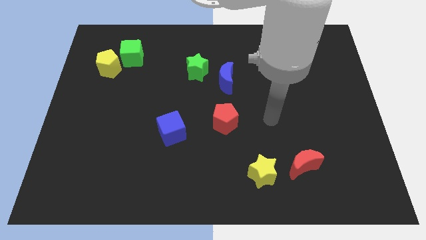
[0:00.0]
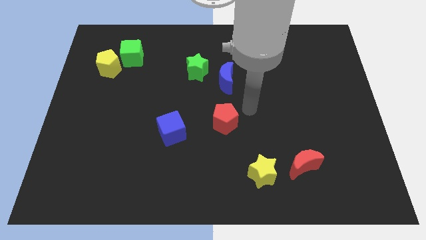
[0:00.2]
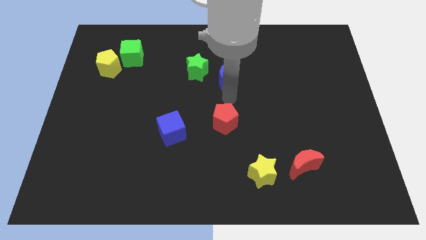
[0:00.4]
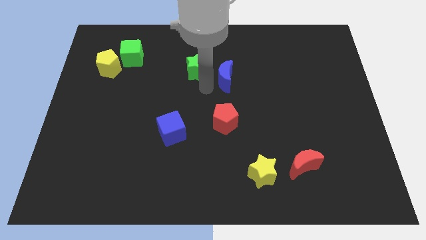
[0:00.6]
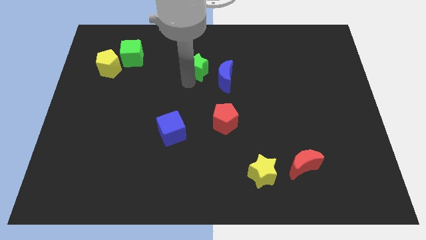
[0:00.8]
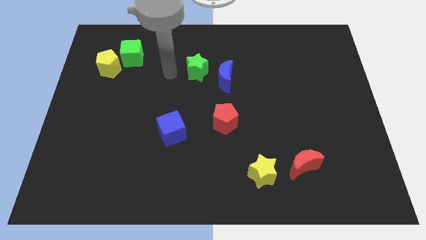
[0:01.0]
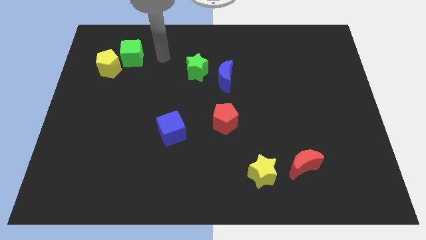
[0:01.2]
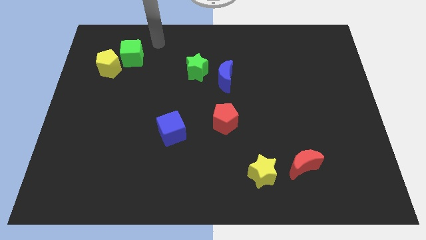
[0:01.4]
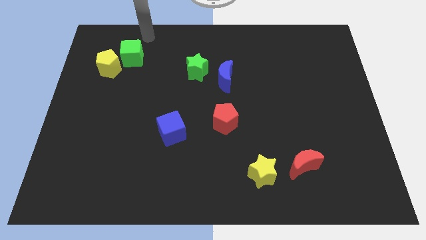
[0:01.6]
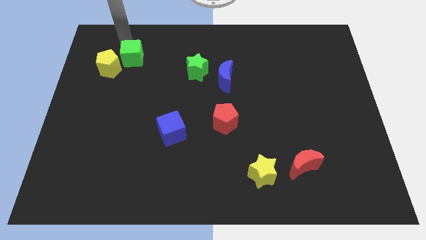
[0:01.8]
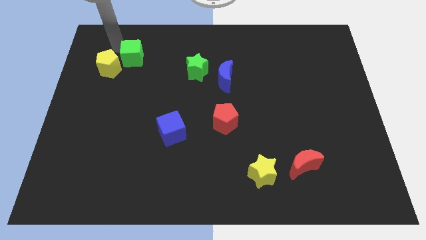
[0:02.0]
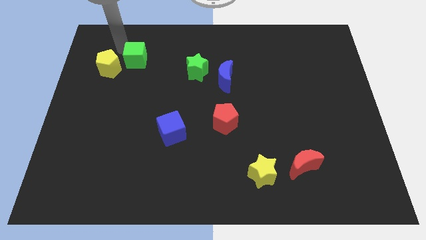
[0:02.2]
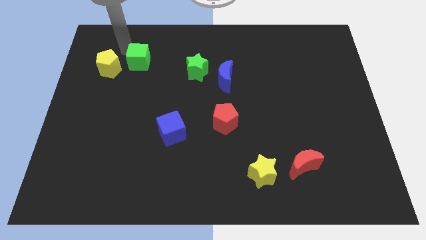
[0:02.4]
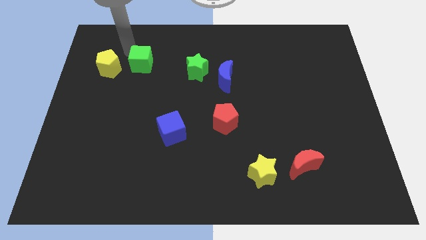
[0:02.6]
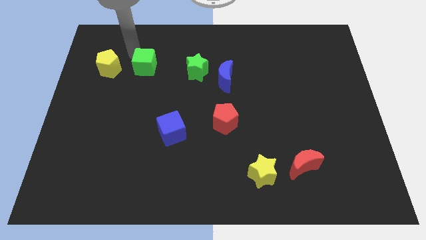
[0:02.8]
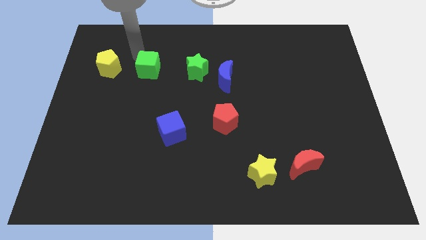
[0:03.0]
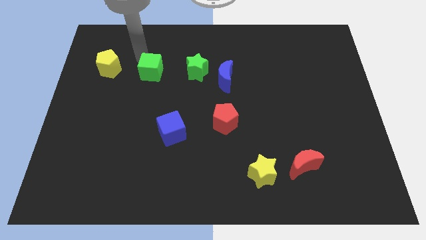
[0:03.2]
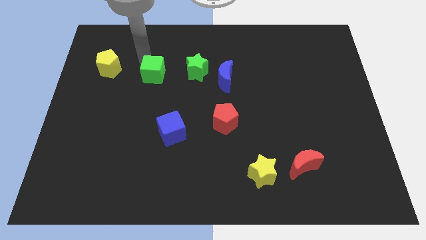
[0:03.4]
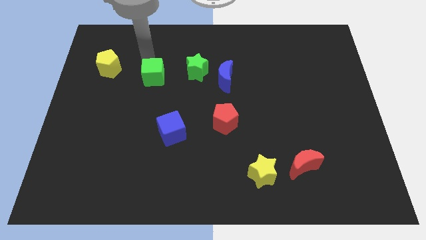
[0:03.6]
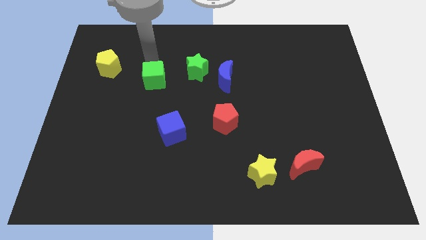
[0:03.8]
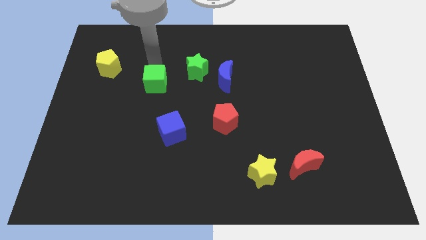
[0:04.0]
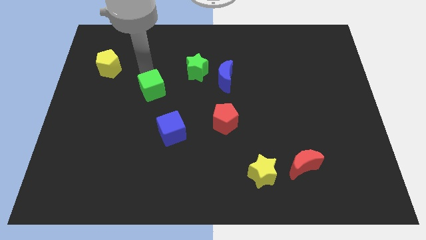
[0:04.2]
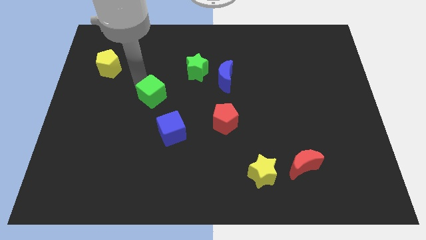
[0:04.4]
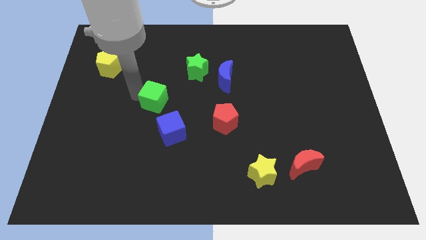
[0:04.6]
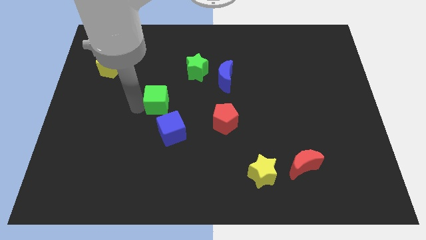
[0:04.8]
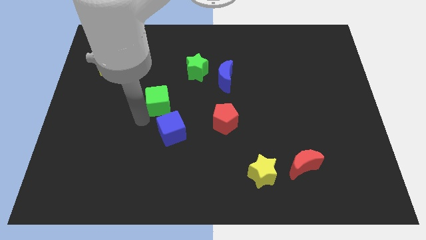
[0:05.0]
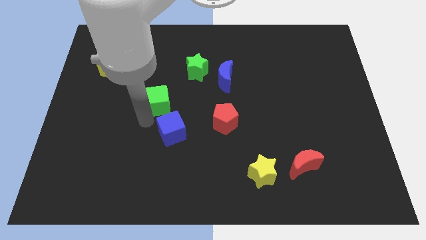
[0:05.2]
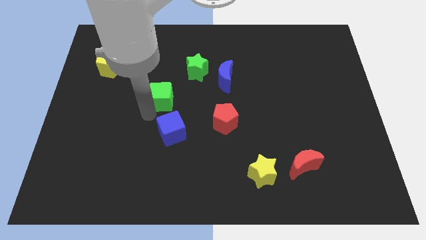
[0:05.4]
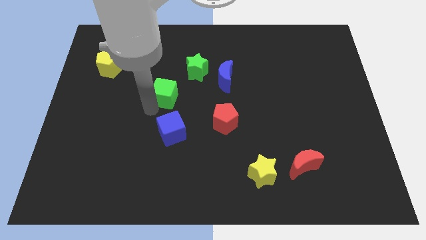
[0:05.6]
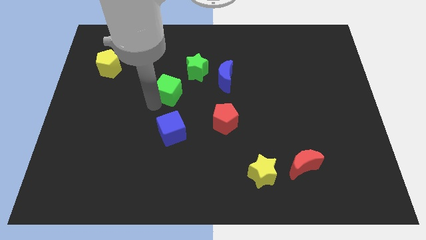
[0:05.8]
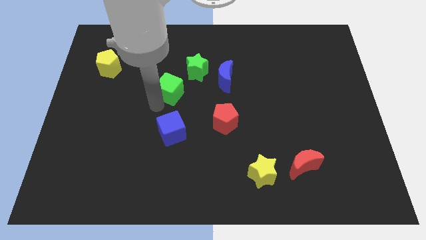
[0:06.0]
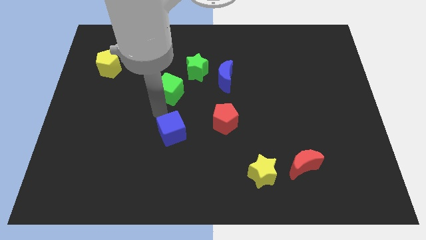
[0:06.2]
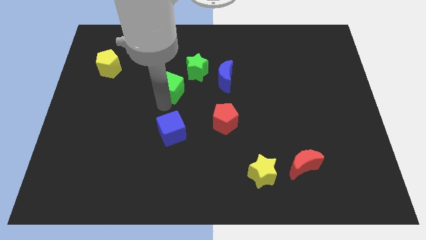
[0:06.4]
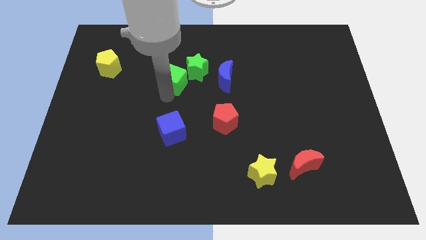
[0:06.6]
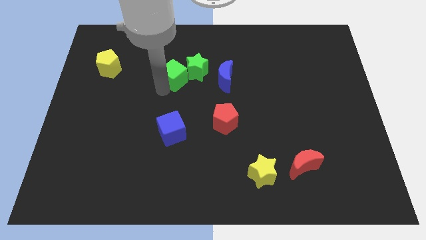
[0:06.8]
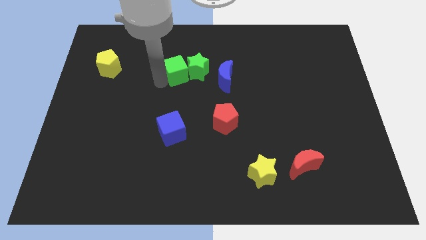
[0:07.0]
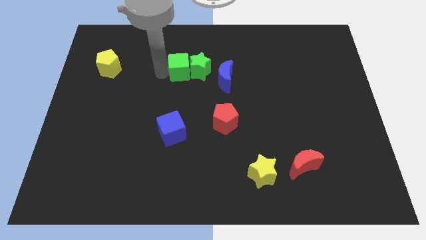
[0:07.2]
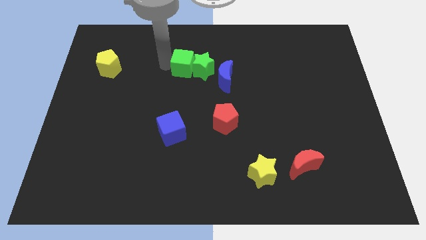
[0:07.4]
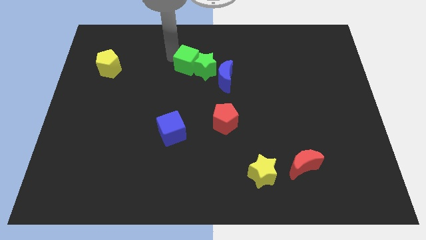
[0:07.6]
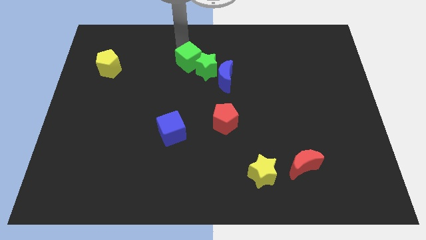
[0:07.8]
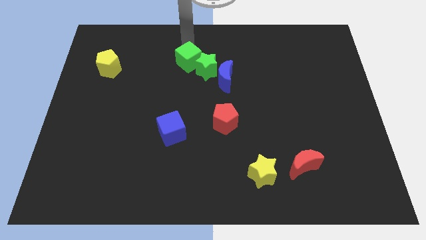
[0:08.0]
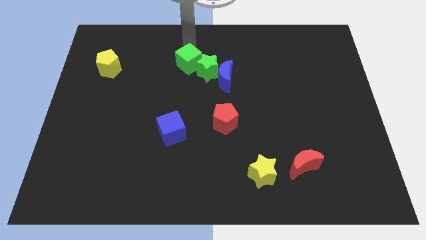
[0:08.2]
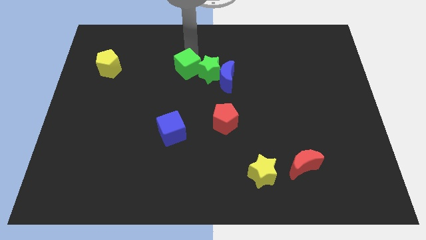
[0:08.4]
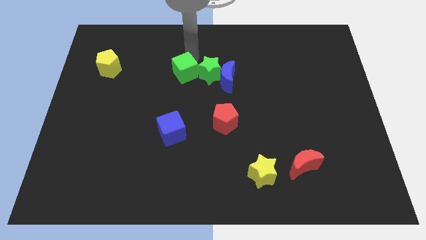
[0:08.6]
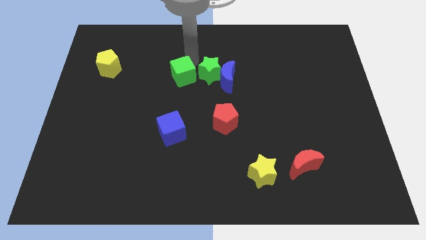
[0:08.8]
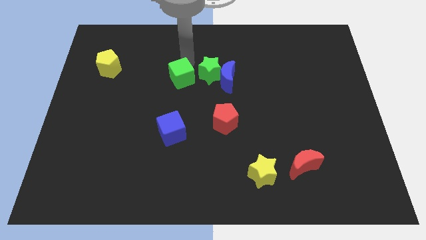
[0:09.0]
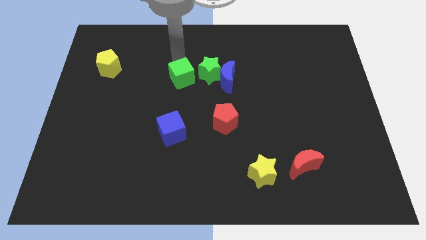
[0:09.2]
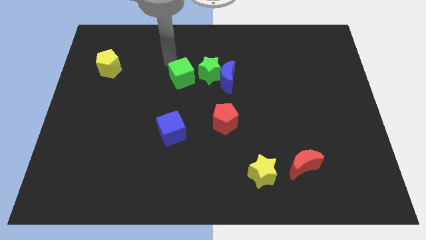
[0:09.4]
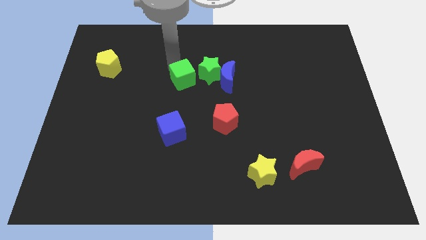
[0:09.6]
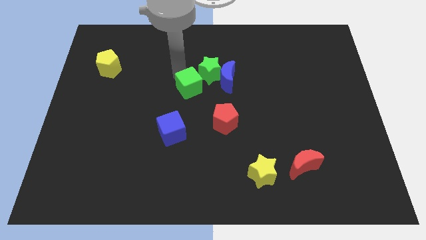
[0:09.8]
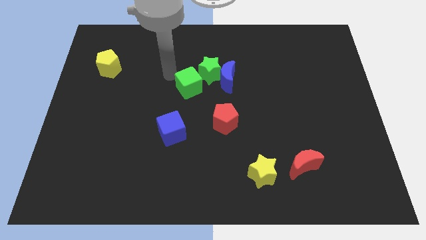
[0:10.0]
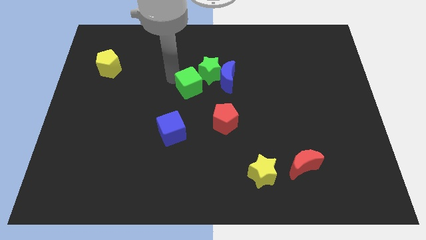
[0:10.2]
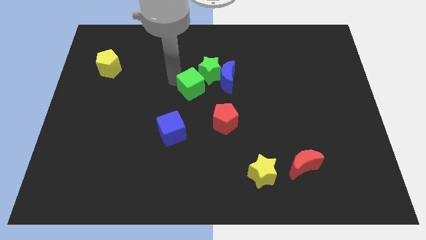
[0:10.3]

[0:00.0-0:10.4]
slide the green cube to the bottom left of the blue moon

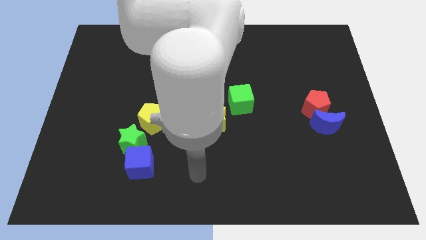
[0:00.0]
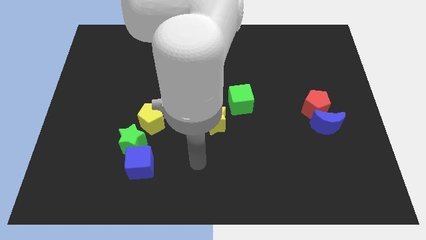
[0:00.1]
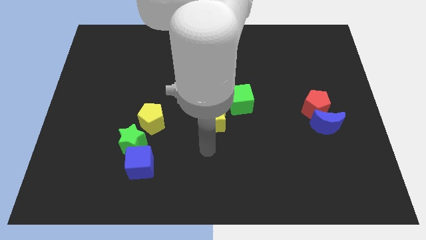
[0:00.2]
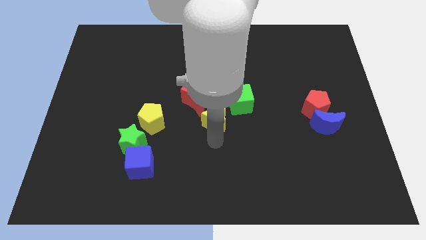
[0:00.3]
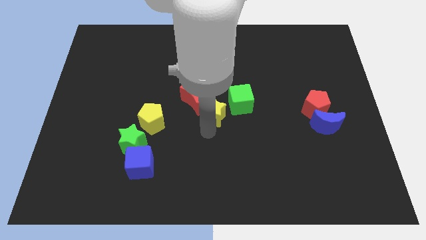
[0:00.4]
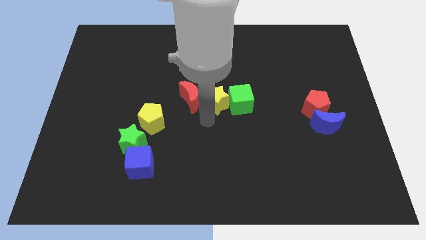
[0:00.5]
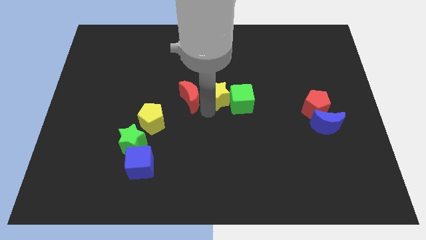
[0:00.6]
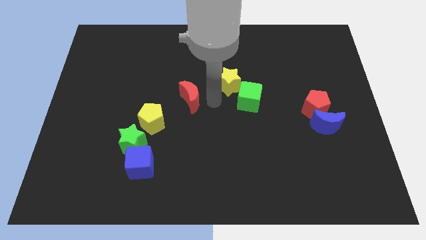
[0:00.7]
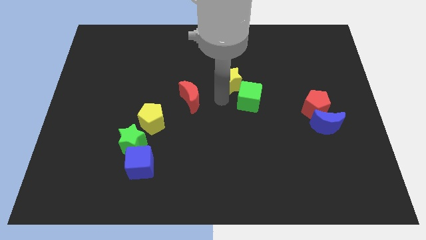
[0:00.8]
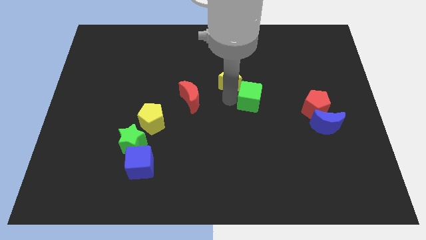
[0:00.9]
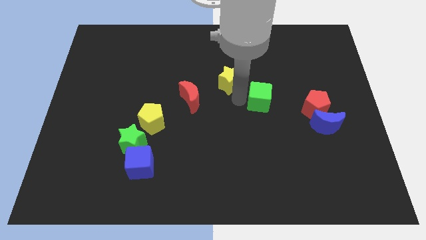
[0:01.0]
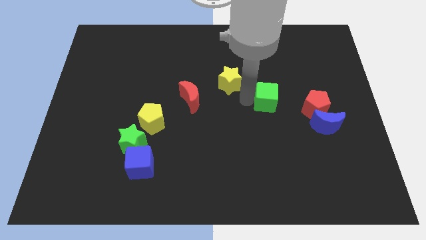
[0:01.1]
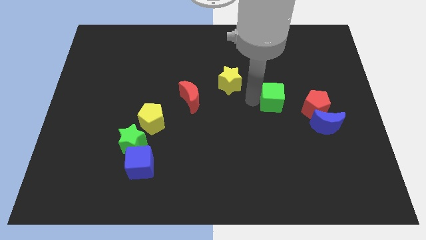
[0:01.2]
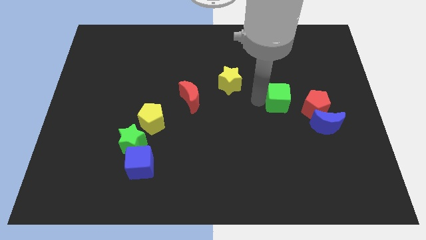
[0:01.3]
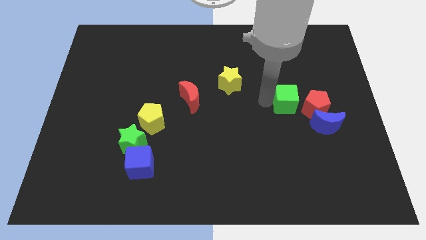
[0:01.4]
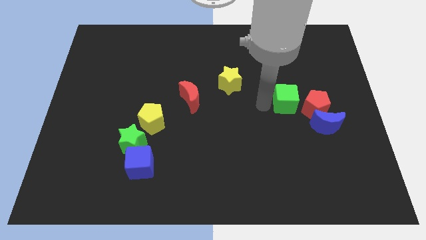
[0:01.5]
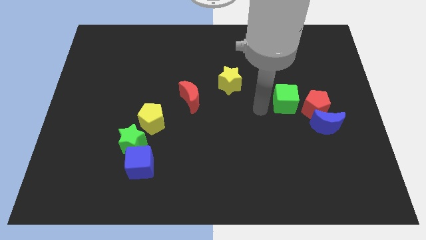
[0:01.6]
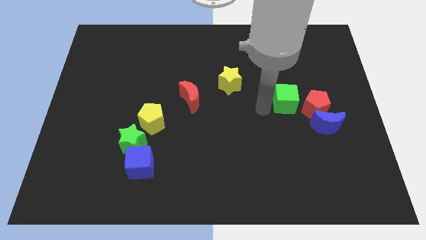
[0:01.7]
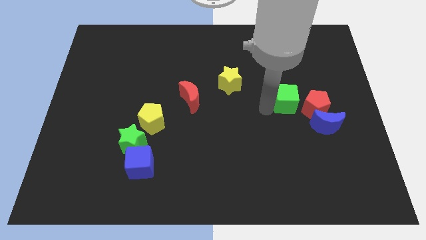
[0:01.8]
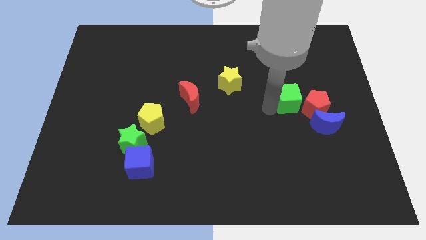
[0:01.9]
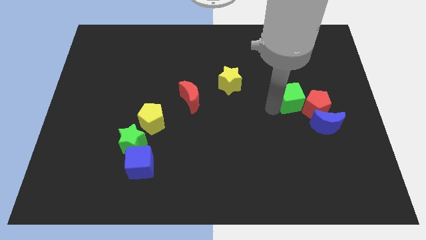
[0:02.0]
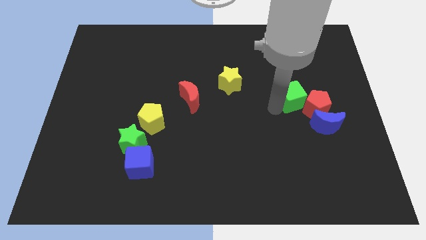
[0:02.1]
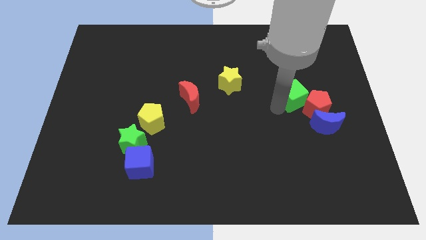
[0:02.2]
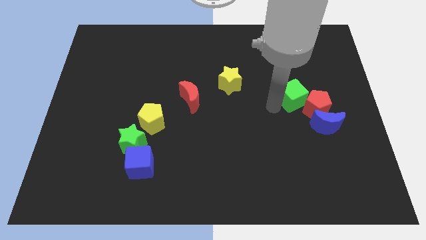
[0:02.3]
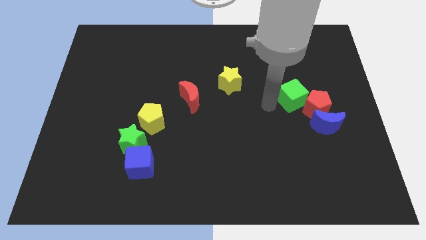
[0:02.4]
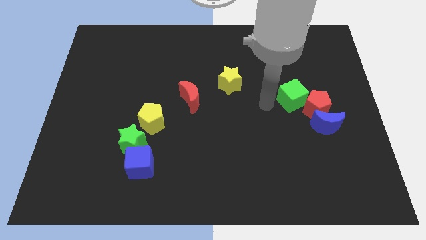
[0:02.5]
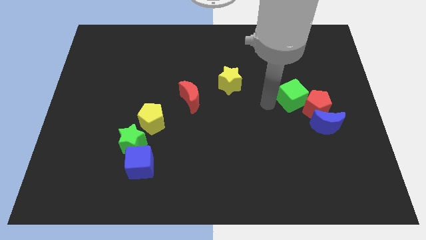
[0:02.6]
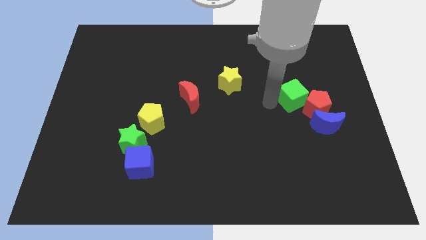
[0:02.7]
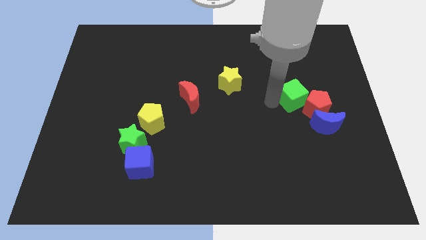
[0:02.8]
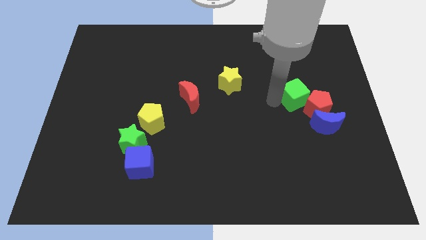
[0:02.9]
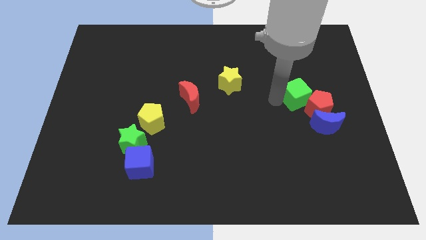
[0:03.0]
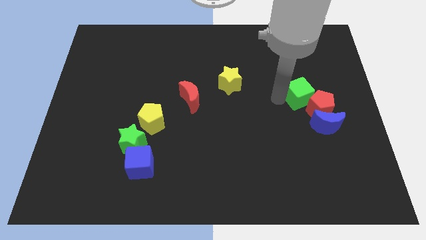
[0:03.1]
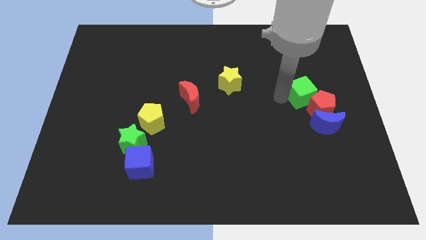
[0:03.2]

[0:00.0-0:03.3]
push the green cube to the top side of the blue moon
